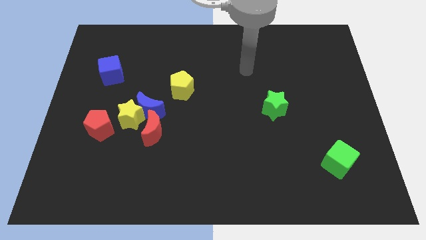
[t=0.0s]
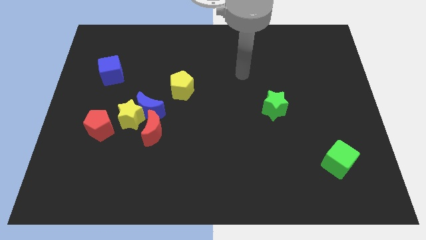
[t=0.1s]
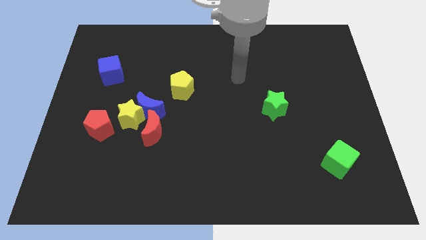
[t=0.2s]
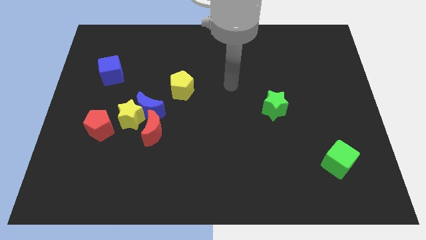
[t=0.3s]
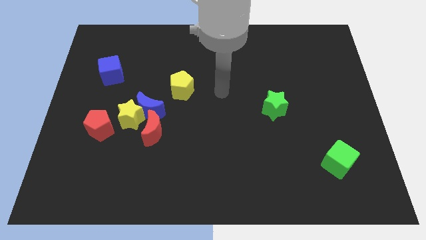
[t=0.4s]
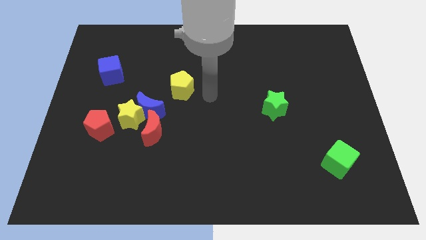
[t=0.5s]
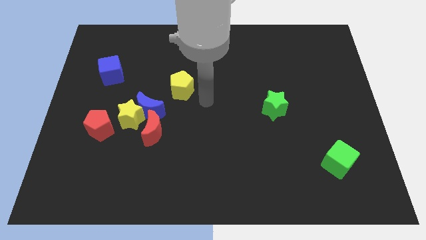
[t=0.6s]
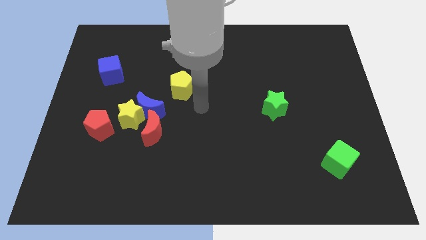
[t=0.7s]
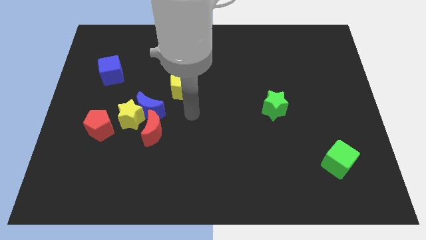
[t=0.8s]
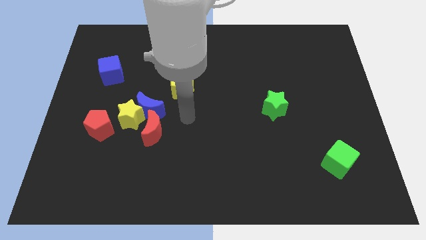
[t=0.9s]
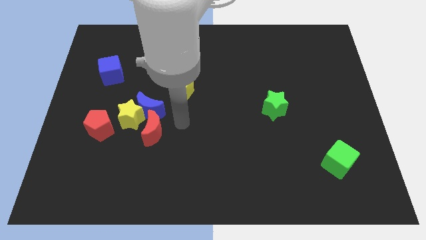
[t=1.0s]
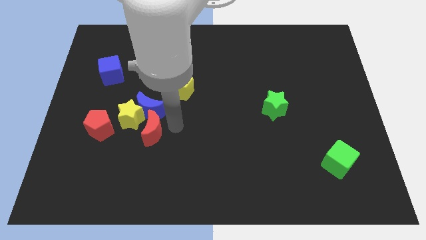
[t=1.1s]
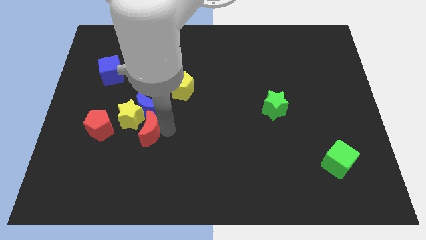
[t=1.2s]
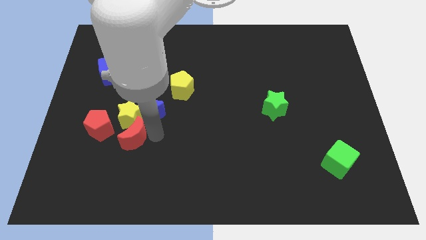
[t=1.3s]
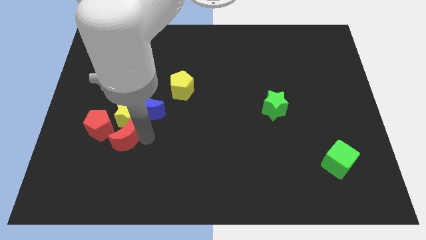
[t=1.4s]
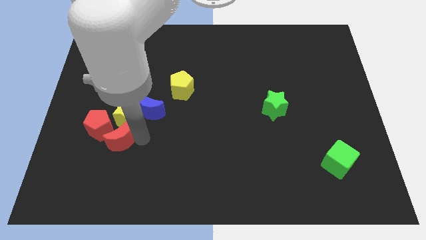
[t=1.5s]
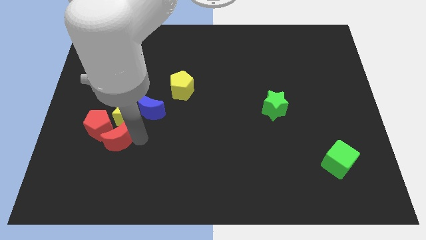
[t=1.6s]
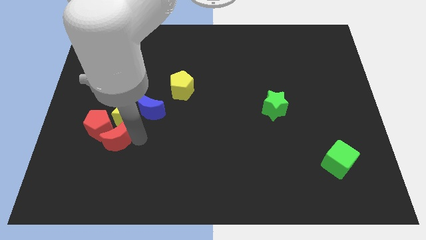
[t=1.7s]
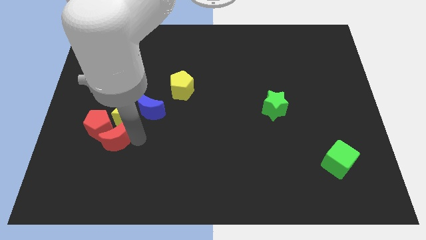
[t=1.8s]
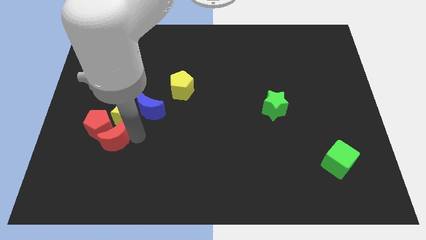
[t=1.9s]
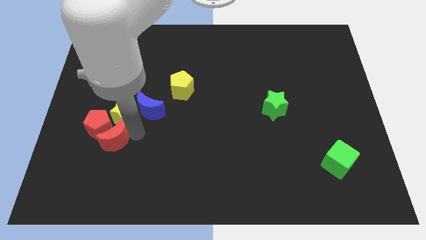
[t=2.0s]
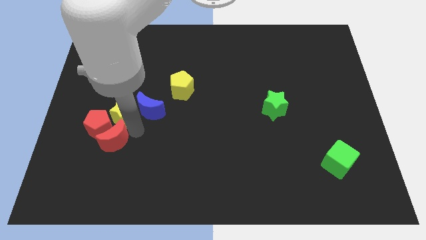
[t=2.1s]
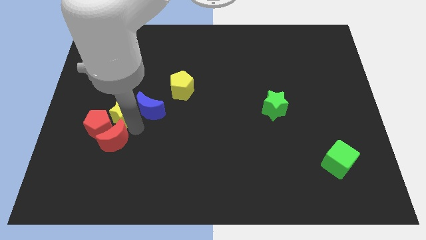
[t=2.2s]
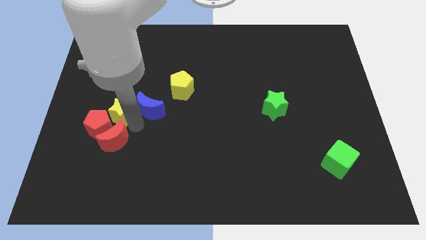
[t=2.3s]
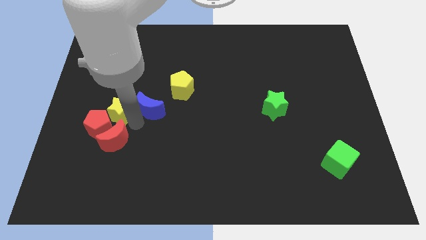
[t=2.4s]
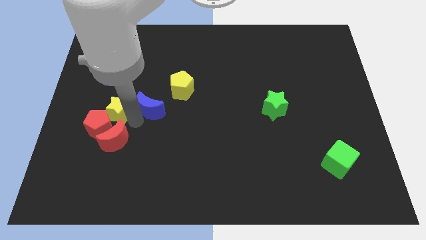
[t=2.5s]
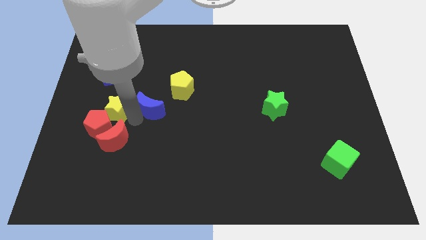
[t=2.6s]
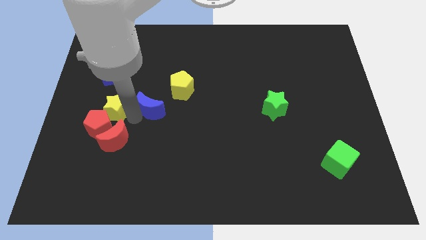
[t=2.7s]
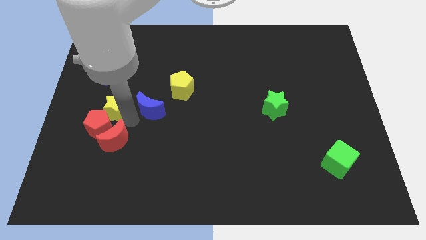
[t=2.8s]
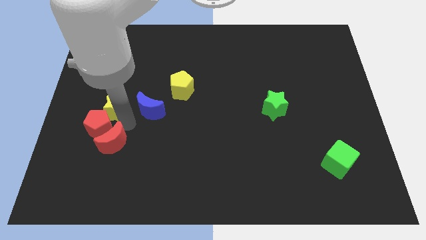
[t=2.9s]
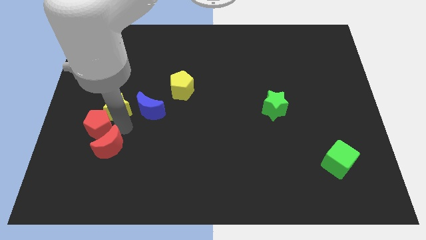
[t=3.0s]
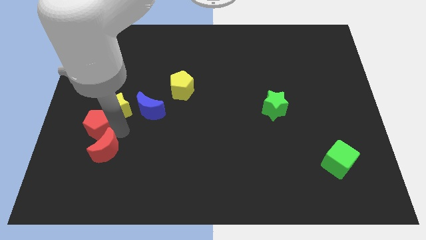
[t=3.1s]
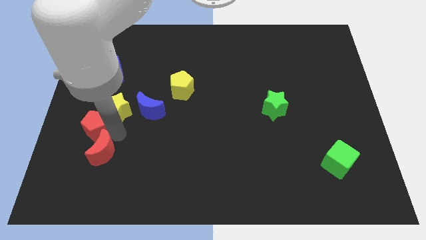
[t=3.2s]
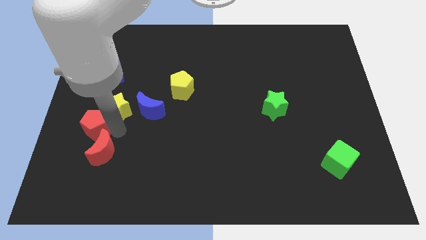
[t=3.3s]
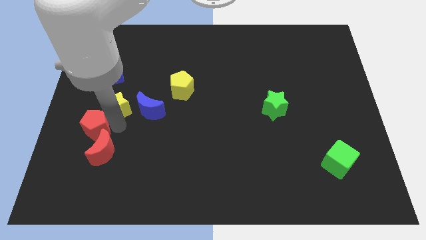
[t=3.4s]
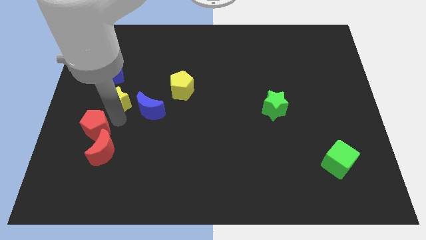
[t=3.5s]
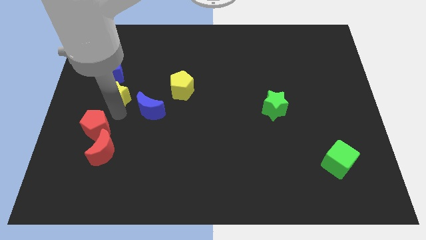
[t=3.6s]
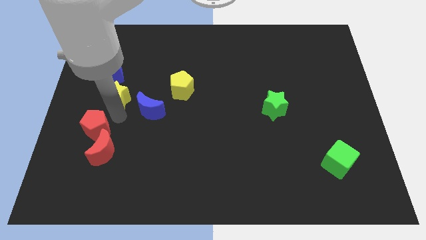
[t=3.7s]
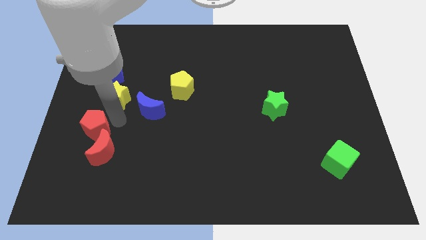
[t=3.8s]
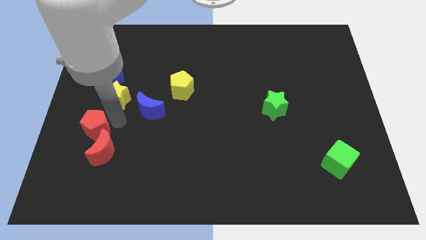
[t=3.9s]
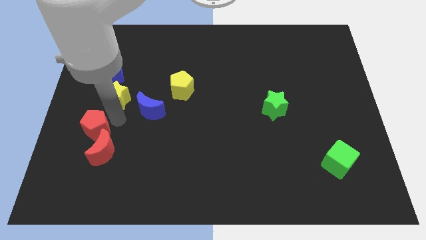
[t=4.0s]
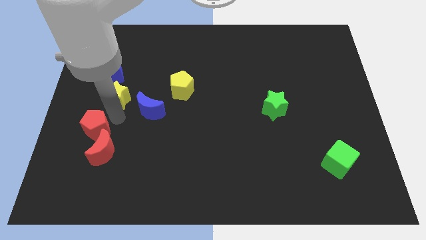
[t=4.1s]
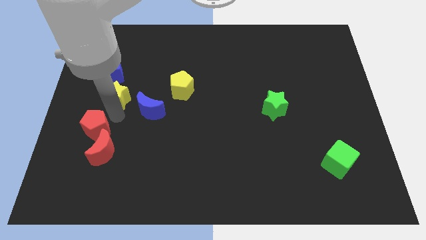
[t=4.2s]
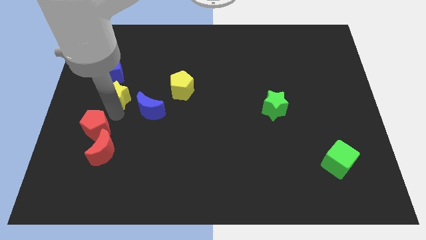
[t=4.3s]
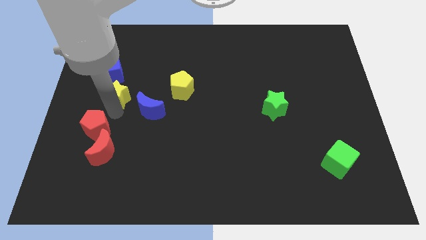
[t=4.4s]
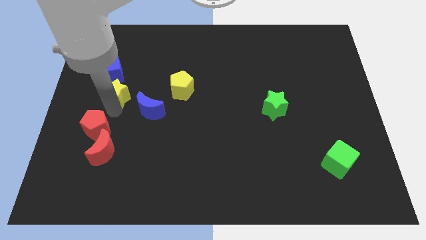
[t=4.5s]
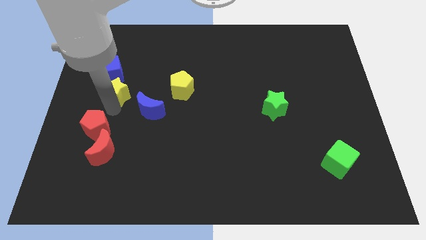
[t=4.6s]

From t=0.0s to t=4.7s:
separate the yellow star from the clump

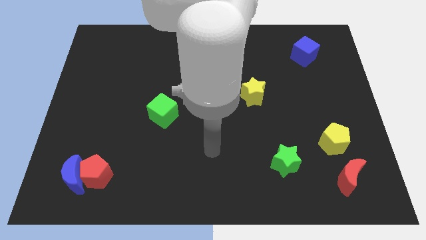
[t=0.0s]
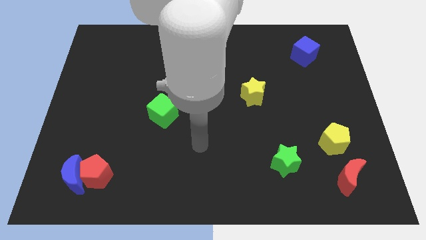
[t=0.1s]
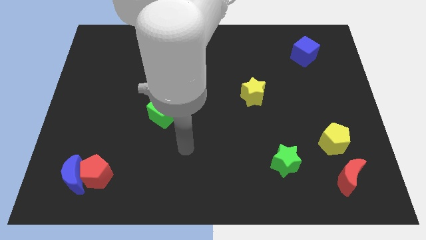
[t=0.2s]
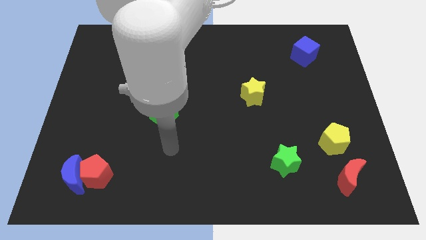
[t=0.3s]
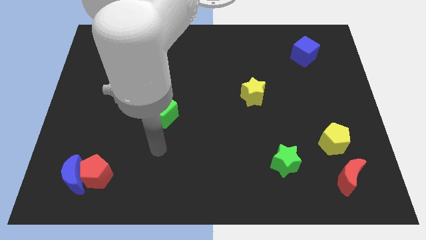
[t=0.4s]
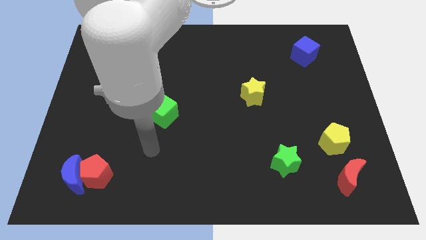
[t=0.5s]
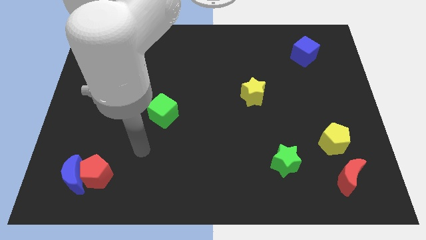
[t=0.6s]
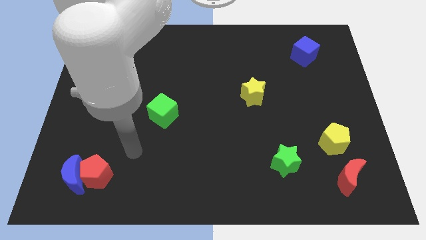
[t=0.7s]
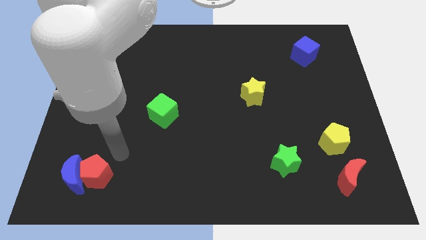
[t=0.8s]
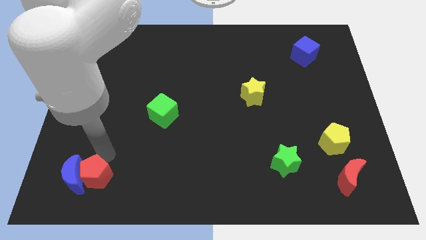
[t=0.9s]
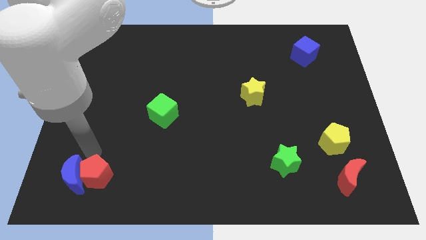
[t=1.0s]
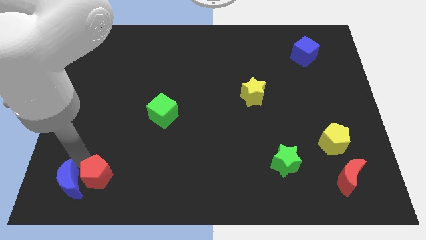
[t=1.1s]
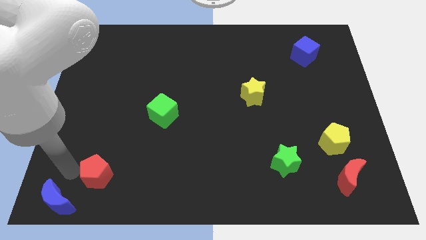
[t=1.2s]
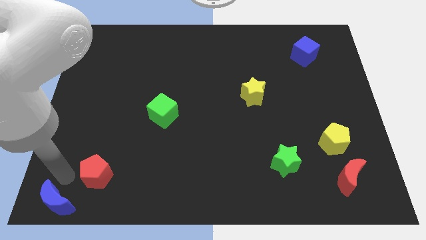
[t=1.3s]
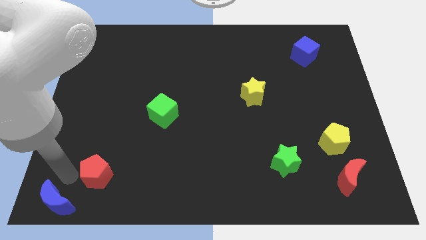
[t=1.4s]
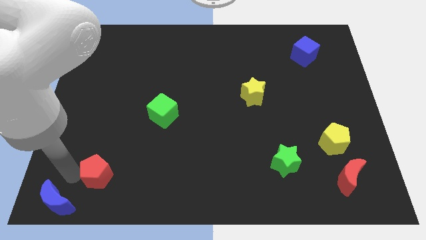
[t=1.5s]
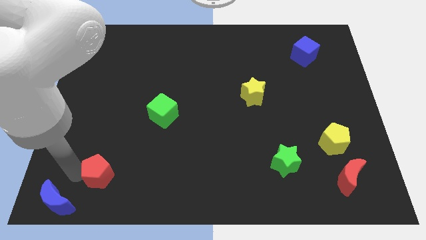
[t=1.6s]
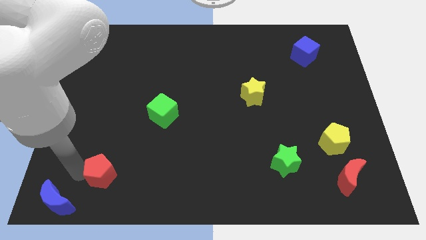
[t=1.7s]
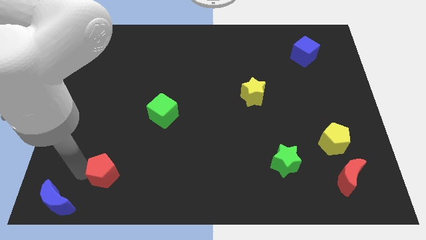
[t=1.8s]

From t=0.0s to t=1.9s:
separate the red pentagon from the blue moon

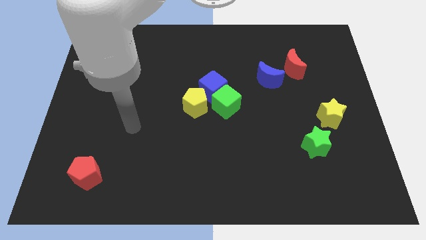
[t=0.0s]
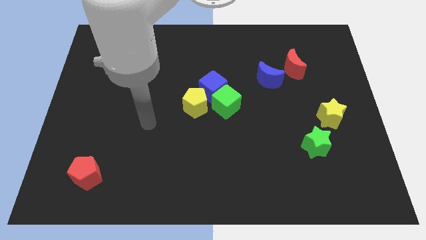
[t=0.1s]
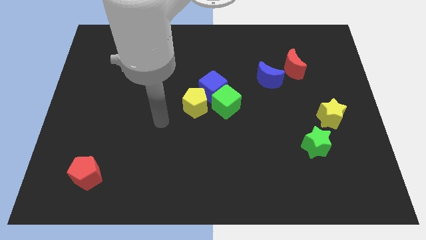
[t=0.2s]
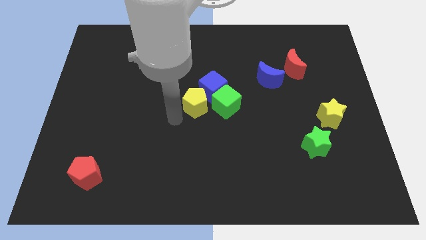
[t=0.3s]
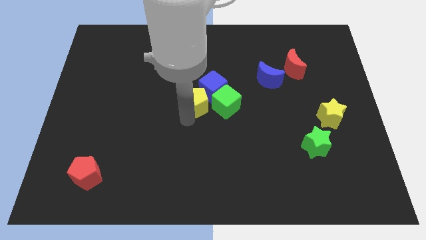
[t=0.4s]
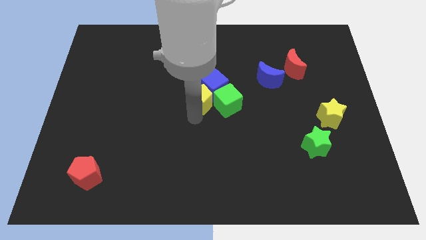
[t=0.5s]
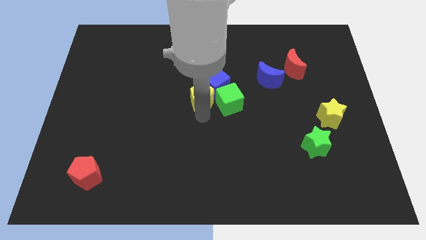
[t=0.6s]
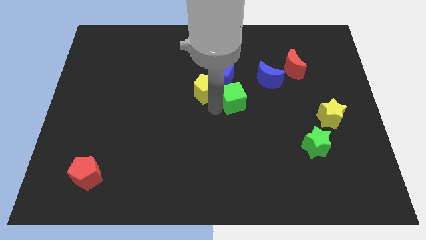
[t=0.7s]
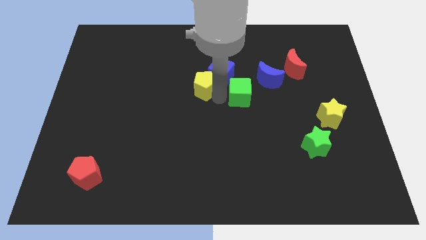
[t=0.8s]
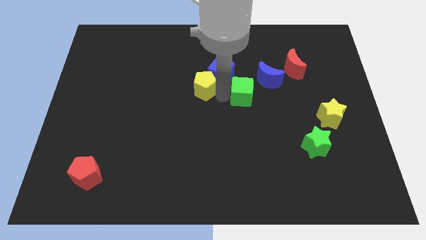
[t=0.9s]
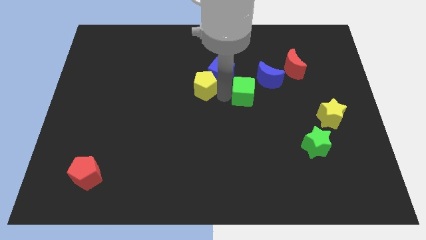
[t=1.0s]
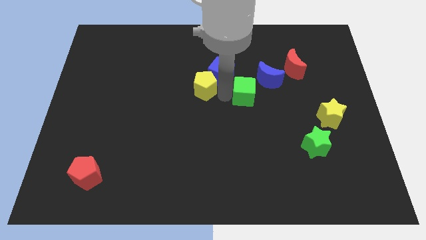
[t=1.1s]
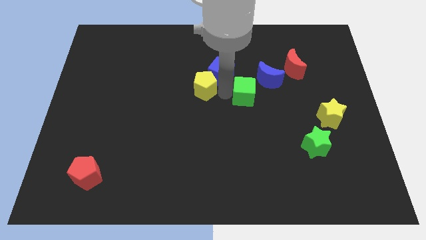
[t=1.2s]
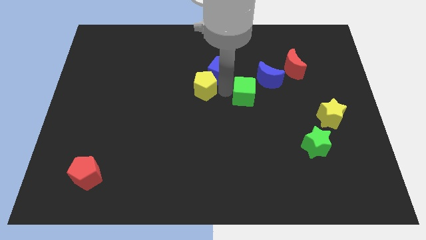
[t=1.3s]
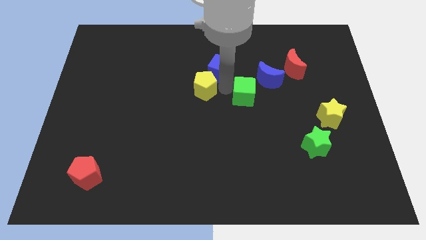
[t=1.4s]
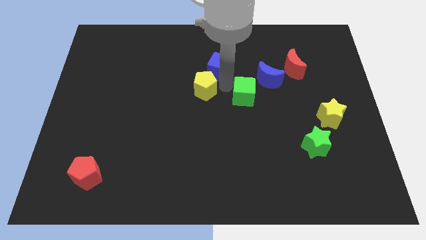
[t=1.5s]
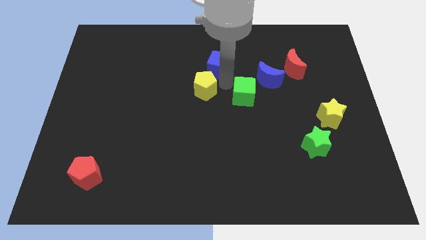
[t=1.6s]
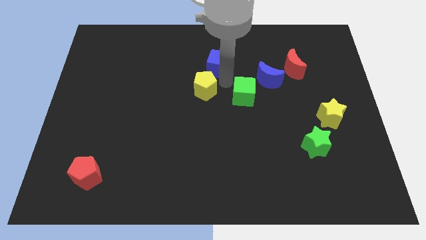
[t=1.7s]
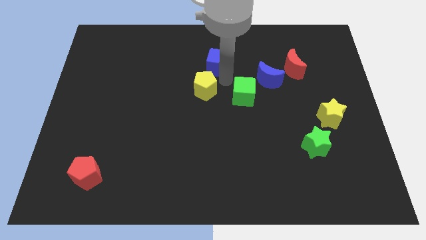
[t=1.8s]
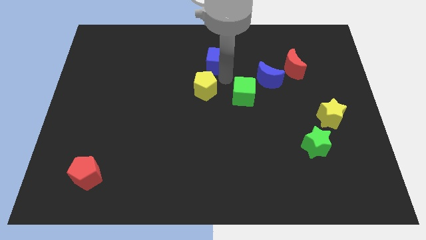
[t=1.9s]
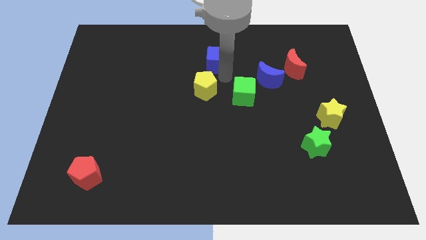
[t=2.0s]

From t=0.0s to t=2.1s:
separate the blue cube from the green cube and yellow pentagon

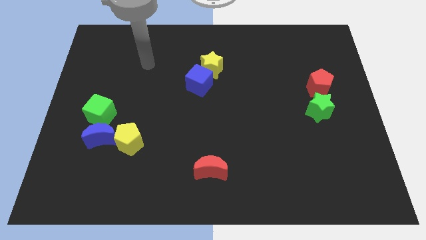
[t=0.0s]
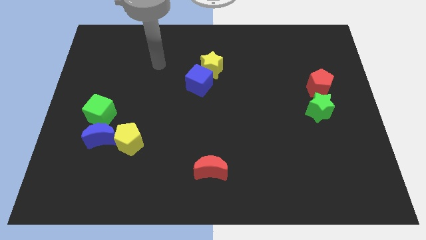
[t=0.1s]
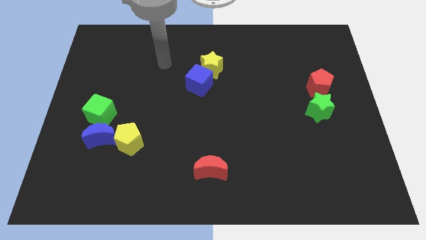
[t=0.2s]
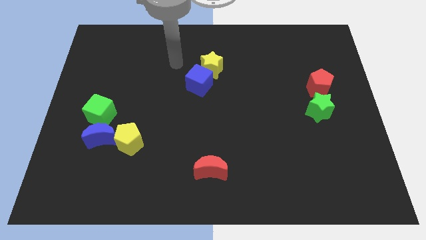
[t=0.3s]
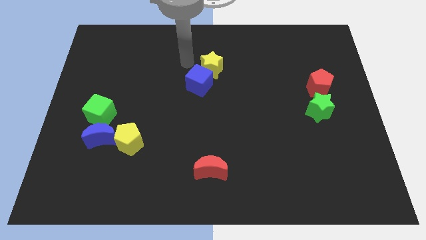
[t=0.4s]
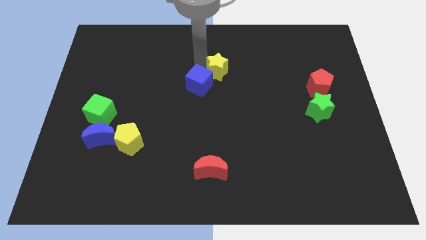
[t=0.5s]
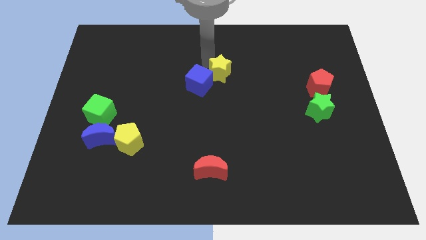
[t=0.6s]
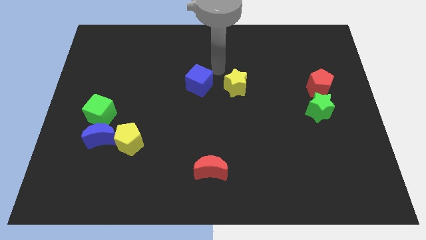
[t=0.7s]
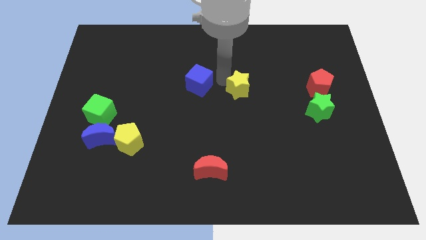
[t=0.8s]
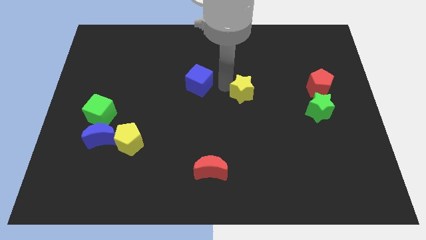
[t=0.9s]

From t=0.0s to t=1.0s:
move the blue cube away from the yellow star
